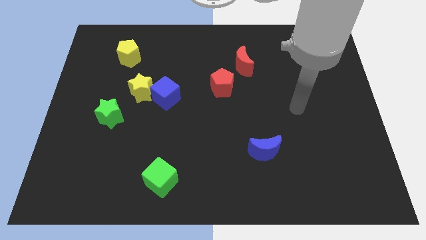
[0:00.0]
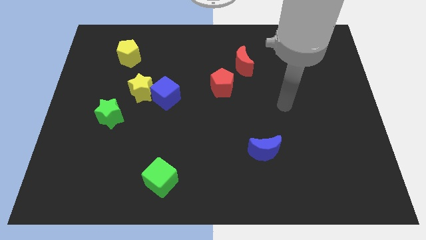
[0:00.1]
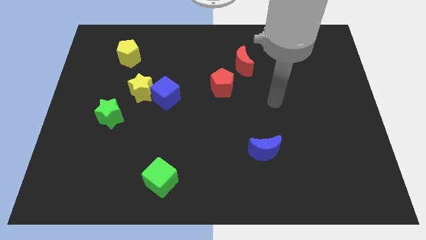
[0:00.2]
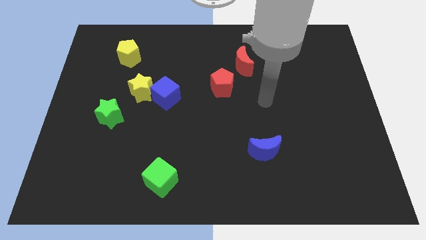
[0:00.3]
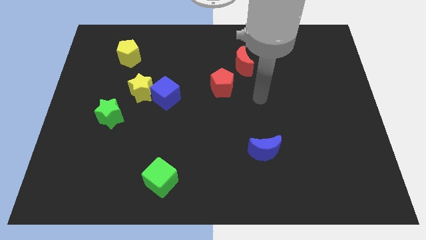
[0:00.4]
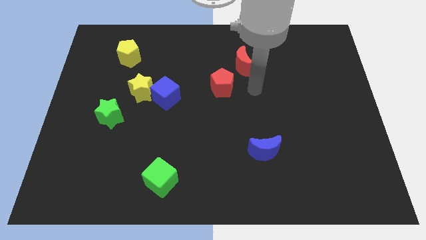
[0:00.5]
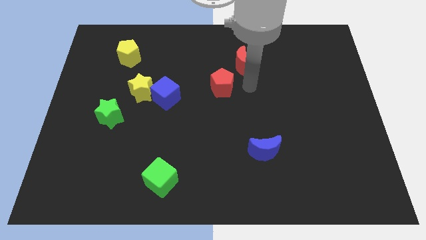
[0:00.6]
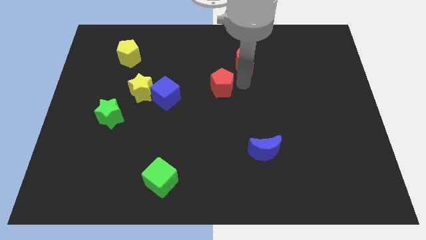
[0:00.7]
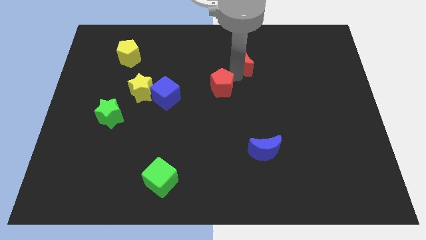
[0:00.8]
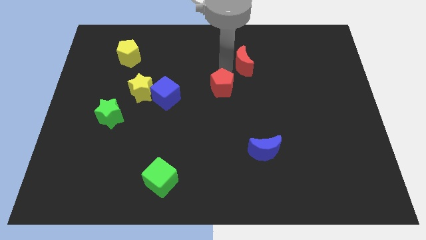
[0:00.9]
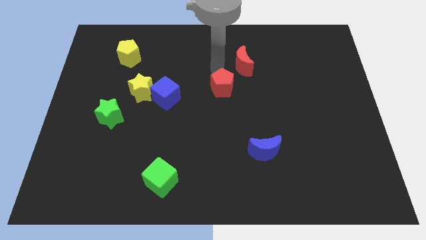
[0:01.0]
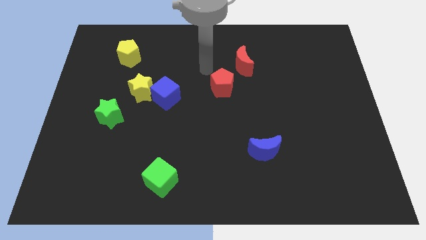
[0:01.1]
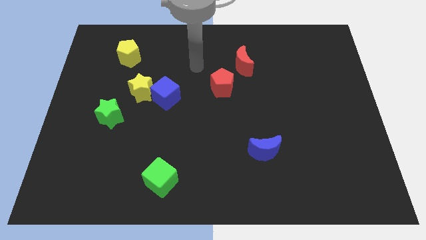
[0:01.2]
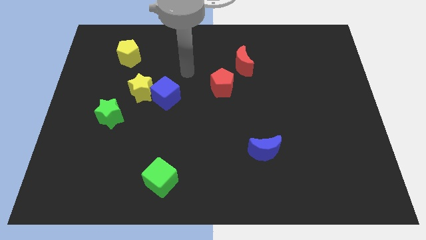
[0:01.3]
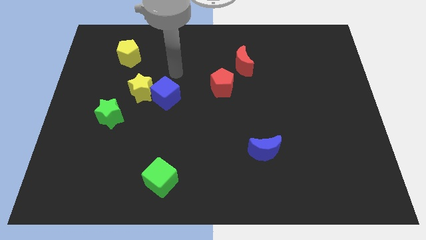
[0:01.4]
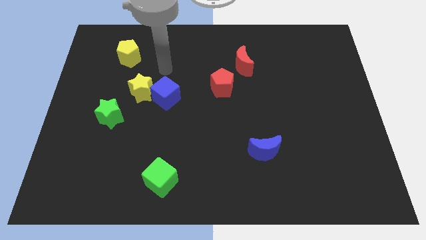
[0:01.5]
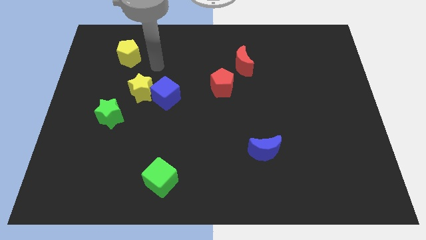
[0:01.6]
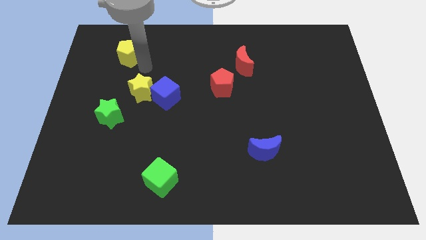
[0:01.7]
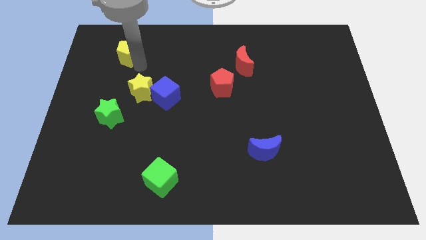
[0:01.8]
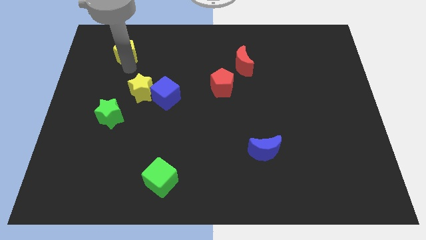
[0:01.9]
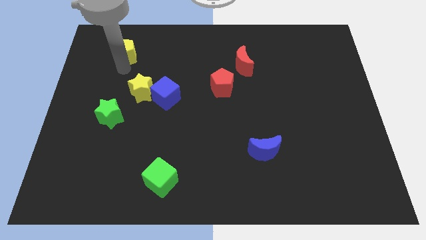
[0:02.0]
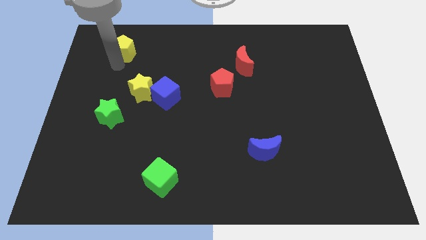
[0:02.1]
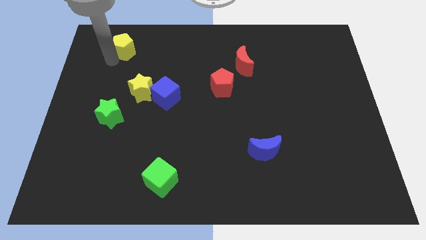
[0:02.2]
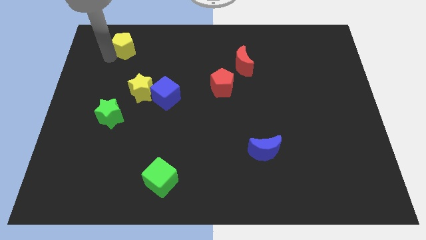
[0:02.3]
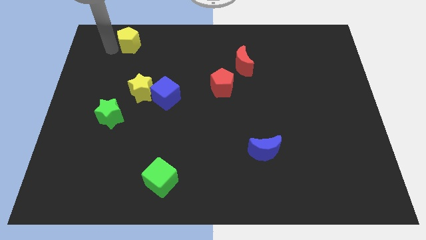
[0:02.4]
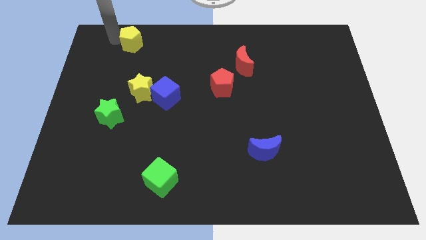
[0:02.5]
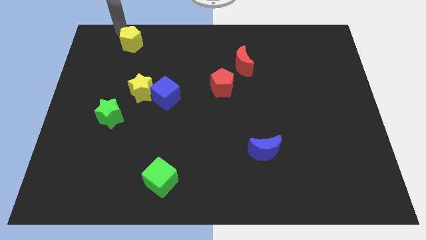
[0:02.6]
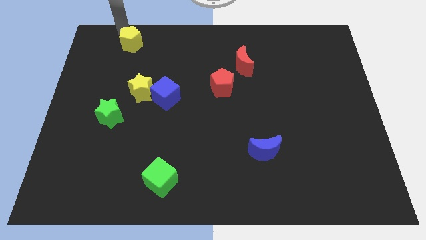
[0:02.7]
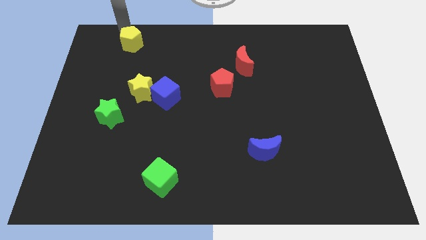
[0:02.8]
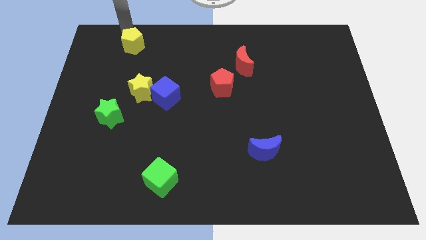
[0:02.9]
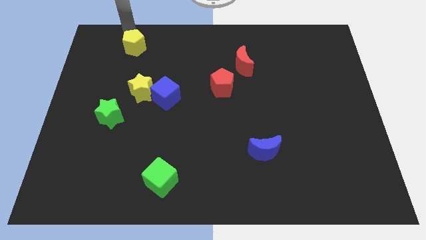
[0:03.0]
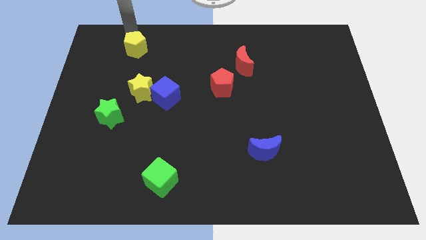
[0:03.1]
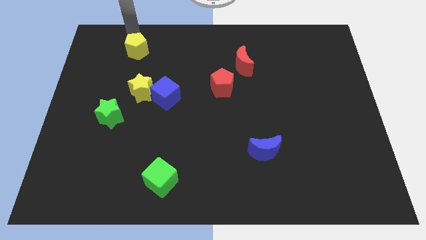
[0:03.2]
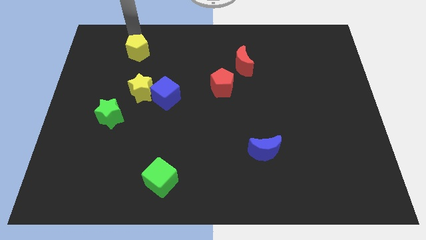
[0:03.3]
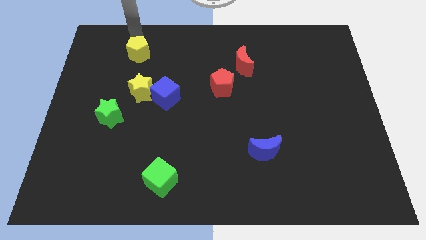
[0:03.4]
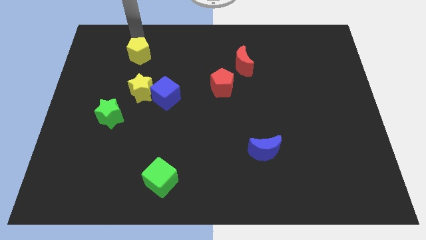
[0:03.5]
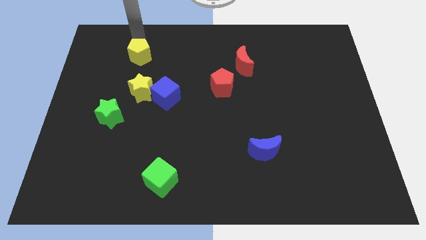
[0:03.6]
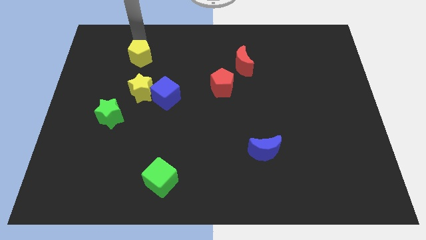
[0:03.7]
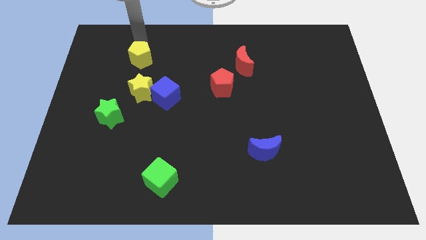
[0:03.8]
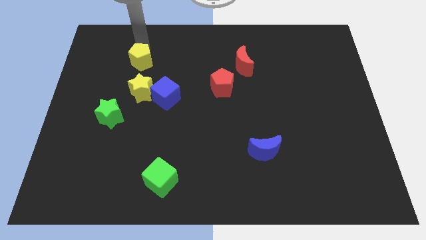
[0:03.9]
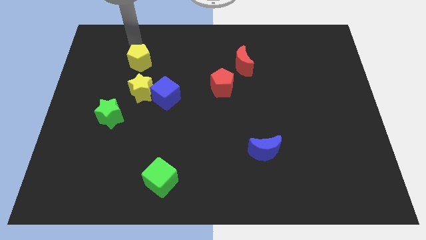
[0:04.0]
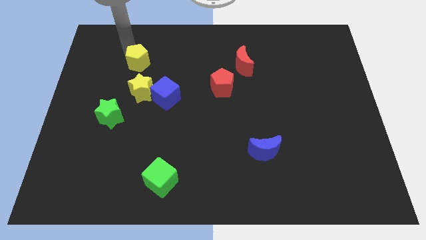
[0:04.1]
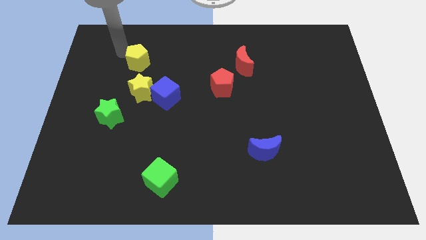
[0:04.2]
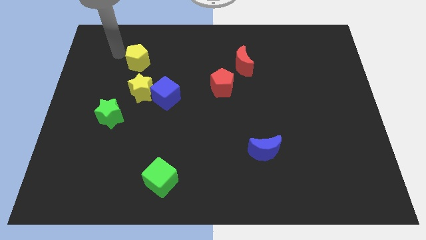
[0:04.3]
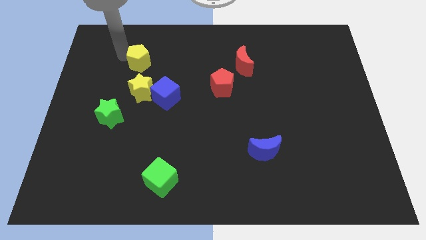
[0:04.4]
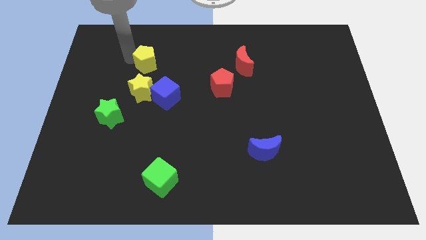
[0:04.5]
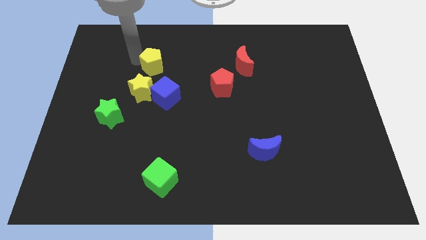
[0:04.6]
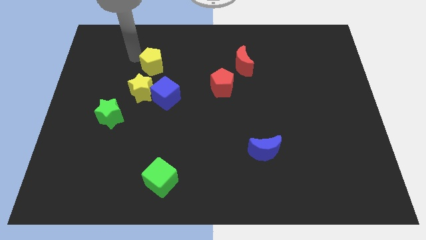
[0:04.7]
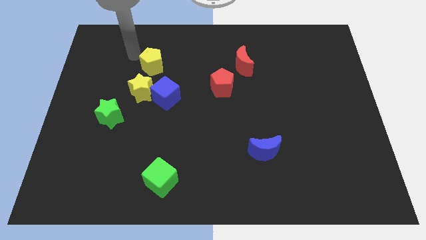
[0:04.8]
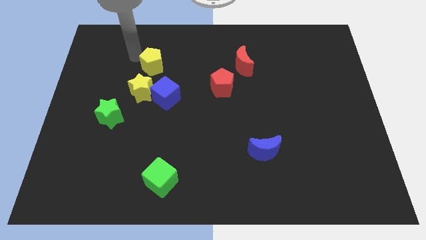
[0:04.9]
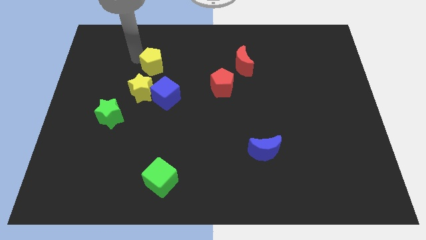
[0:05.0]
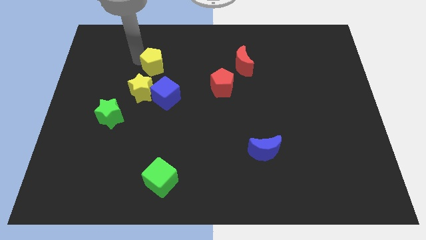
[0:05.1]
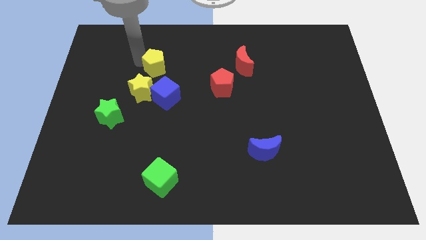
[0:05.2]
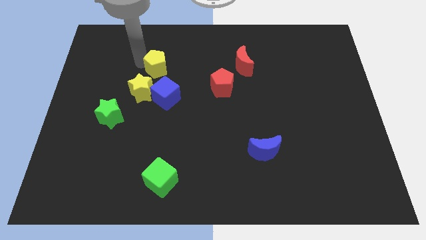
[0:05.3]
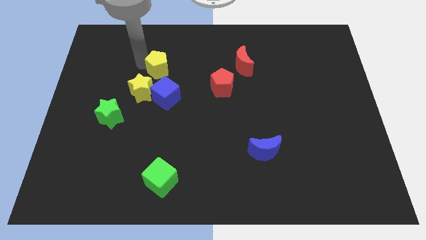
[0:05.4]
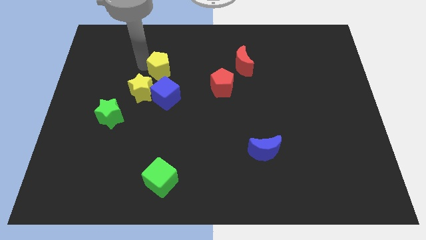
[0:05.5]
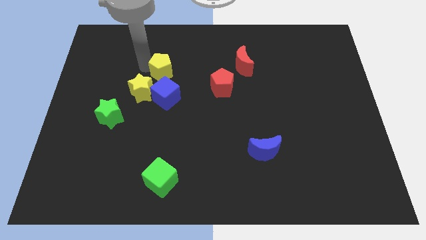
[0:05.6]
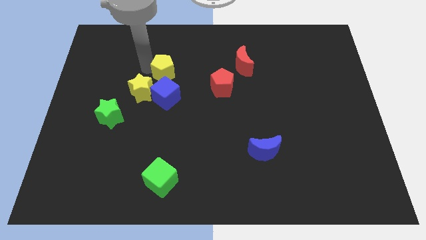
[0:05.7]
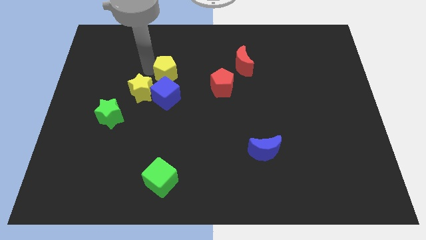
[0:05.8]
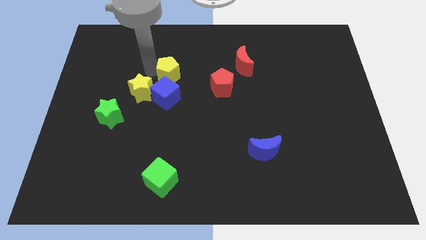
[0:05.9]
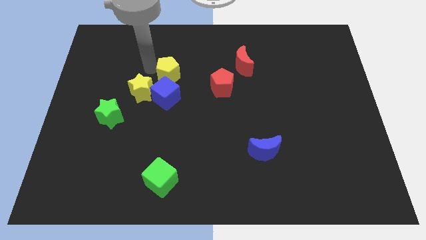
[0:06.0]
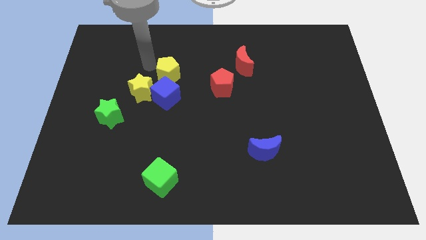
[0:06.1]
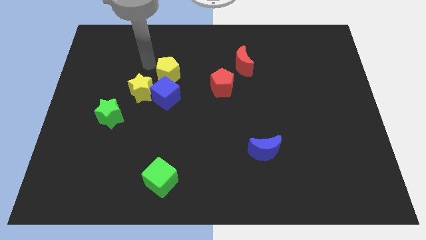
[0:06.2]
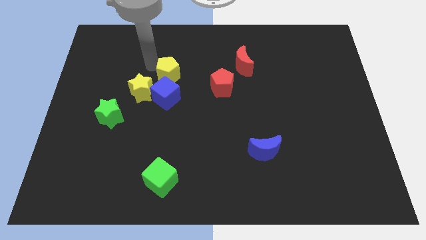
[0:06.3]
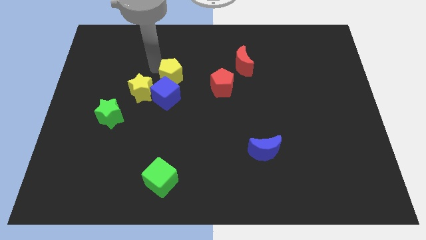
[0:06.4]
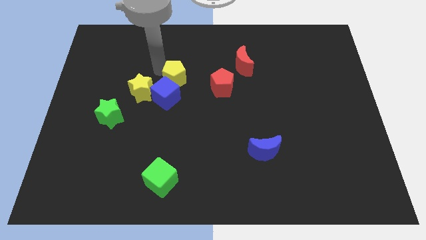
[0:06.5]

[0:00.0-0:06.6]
move the yellow pentagon to the center of the board

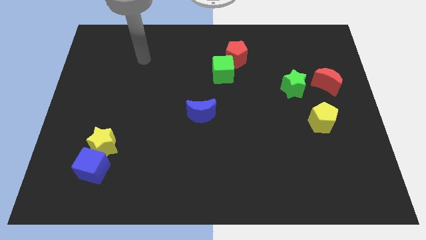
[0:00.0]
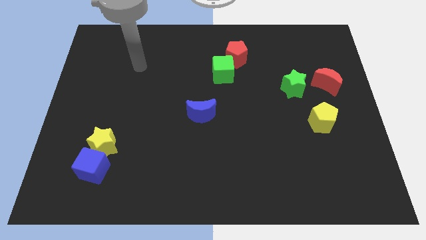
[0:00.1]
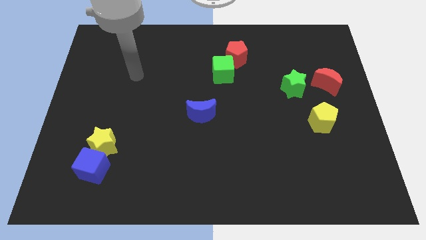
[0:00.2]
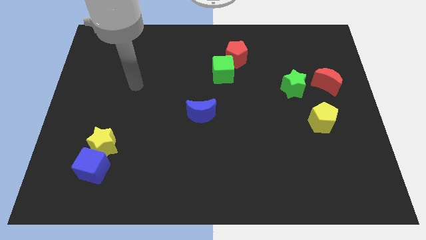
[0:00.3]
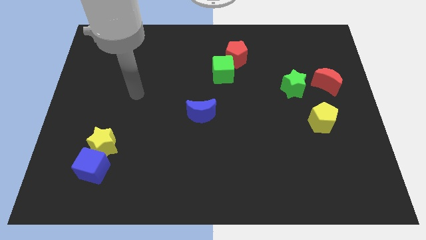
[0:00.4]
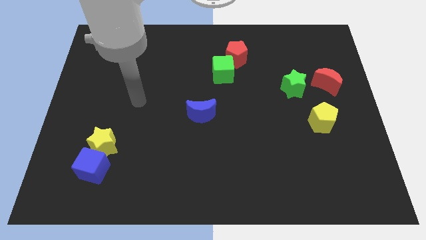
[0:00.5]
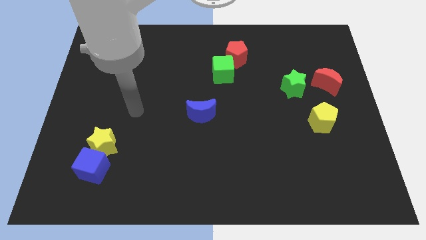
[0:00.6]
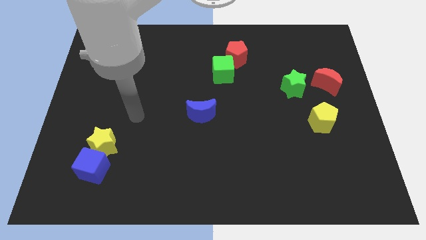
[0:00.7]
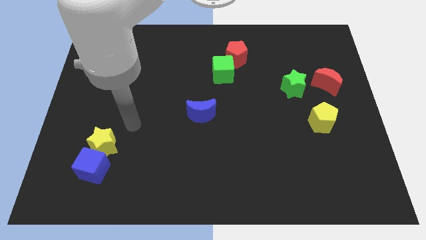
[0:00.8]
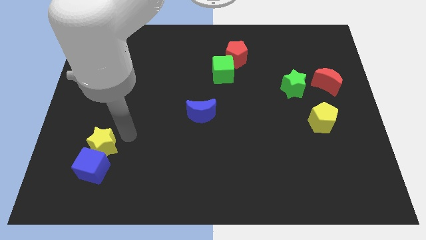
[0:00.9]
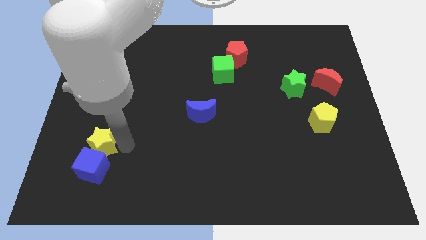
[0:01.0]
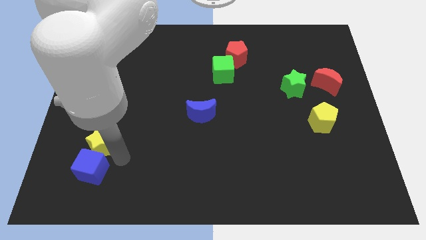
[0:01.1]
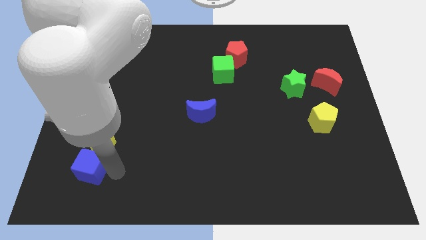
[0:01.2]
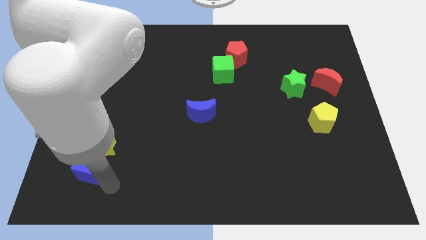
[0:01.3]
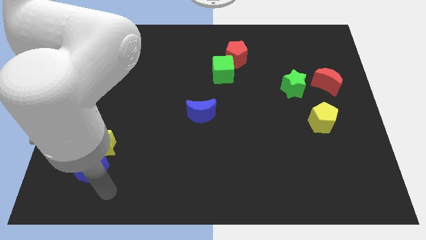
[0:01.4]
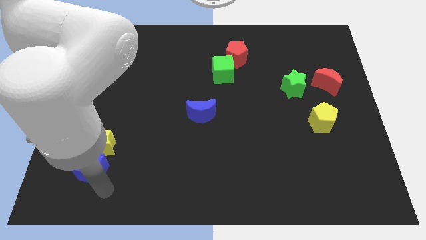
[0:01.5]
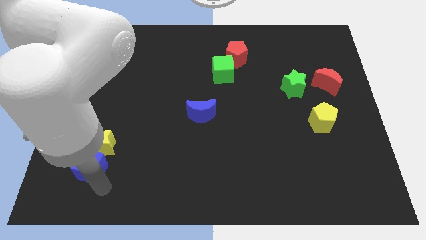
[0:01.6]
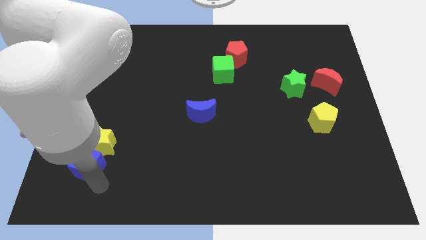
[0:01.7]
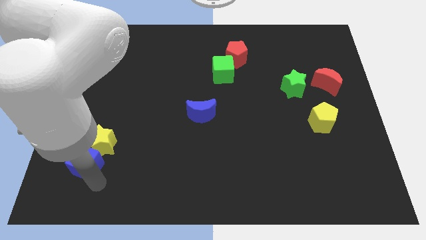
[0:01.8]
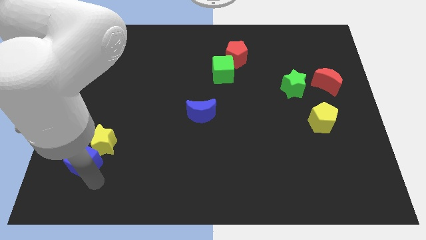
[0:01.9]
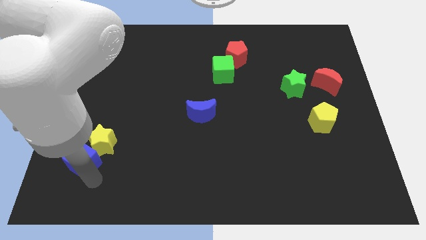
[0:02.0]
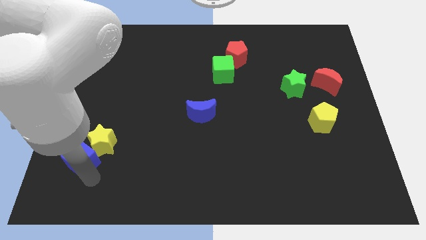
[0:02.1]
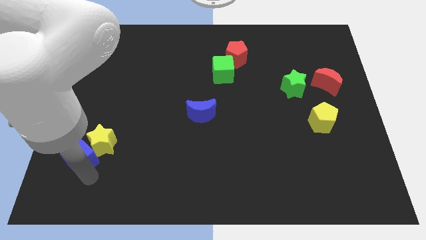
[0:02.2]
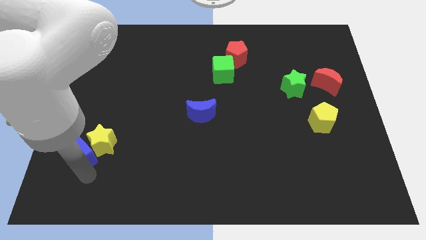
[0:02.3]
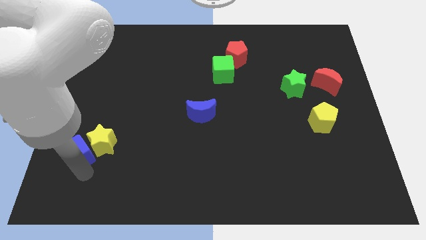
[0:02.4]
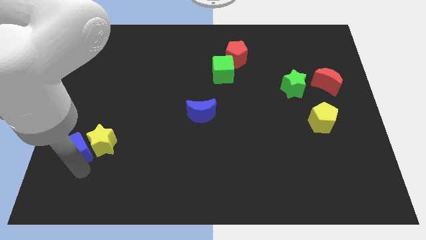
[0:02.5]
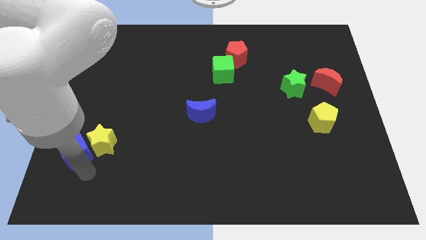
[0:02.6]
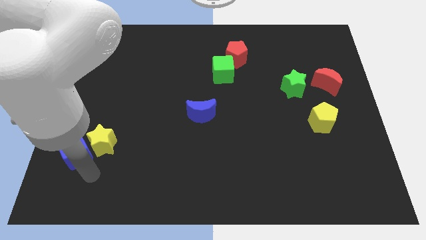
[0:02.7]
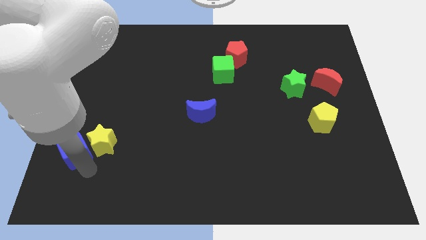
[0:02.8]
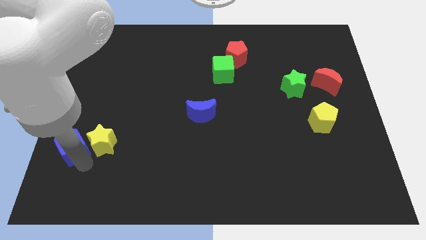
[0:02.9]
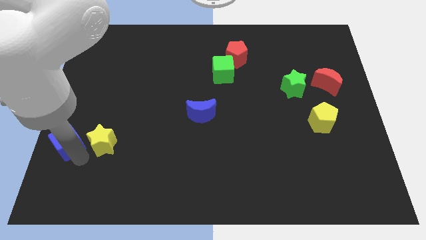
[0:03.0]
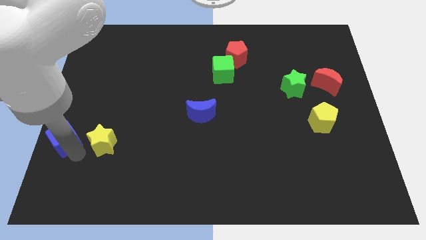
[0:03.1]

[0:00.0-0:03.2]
move the blue cube to the center left
